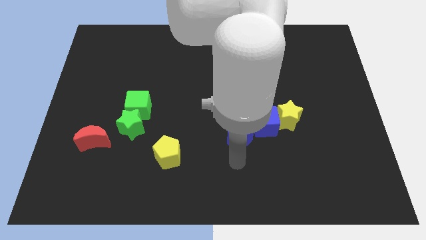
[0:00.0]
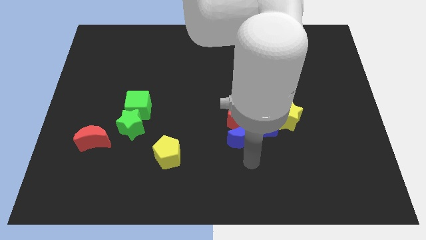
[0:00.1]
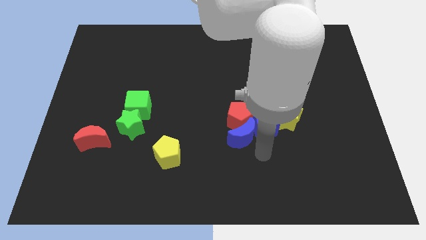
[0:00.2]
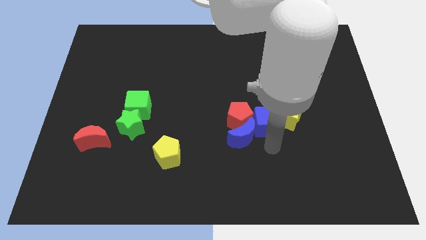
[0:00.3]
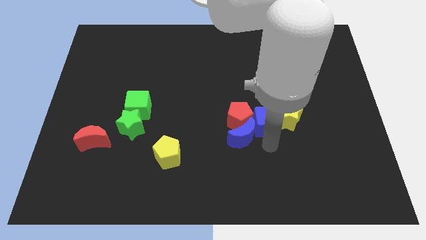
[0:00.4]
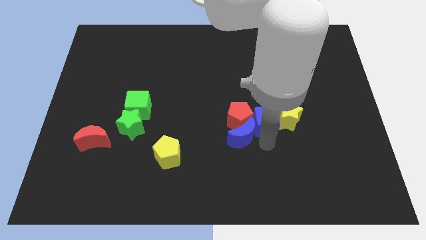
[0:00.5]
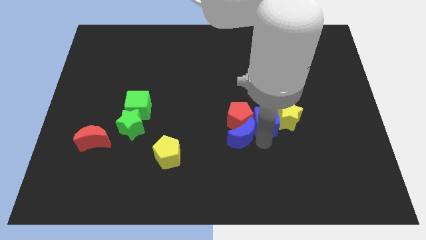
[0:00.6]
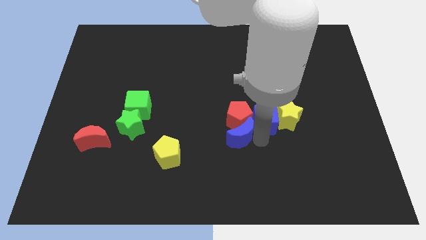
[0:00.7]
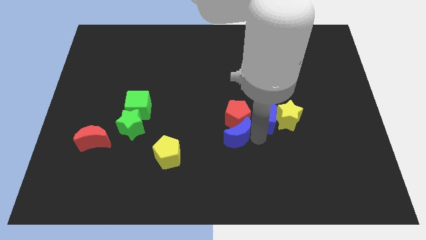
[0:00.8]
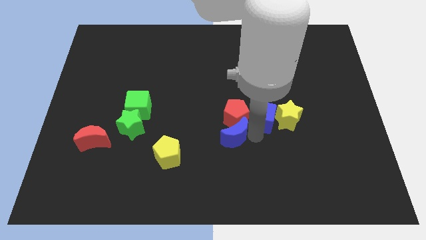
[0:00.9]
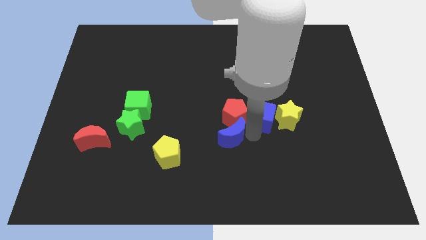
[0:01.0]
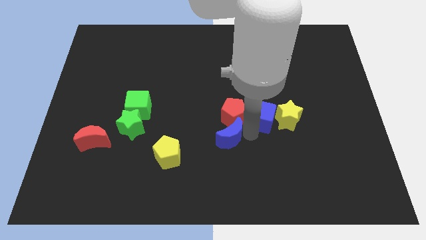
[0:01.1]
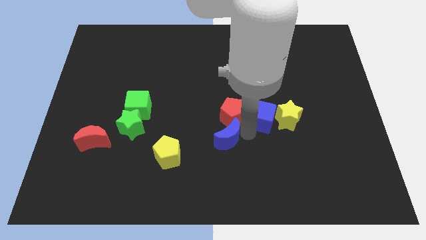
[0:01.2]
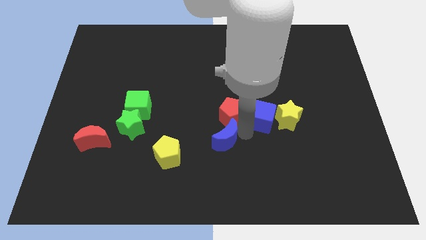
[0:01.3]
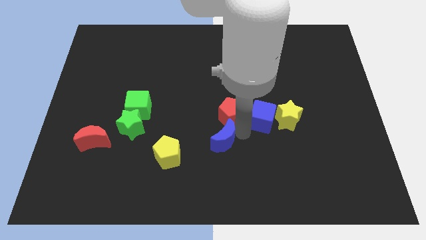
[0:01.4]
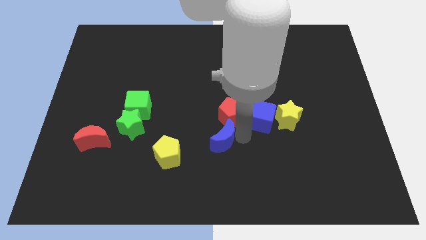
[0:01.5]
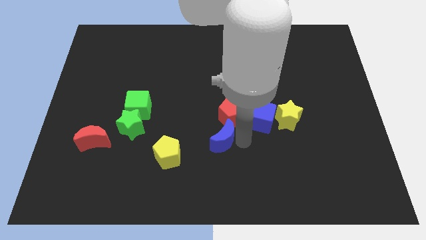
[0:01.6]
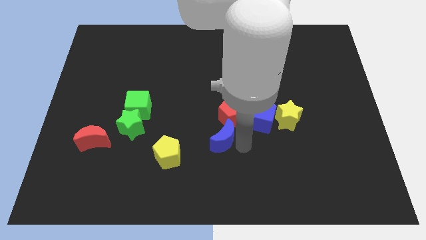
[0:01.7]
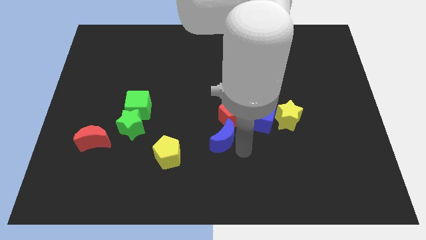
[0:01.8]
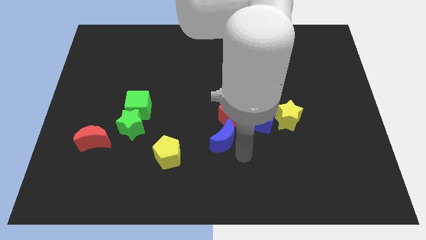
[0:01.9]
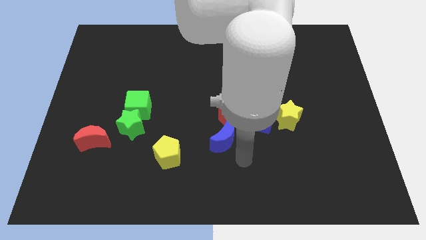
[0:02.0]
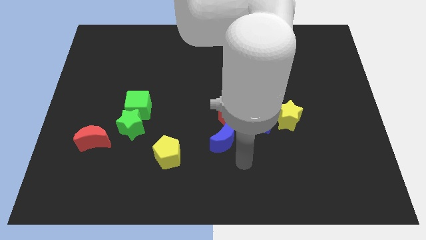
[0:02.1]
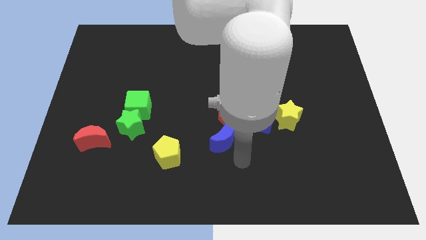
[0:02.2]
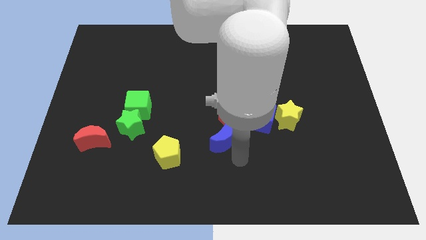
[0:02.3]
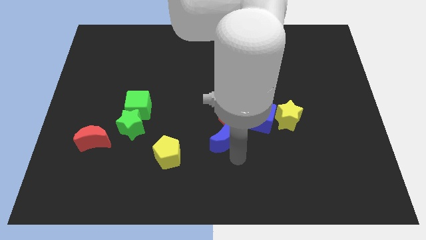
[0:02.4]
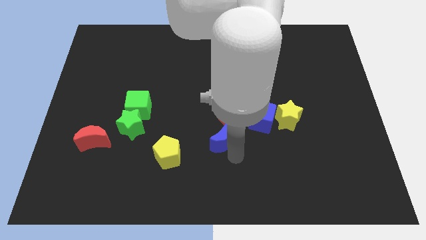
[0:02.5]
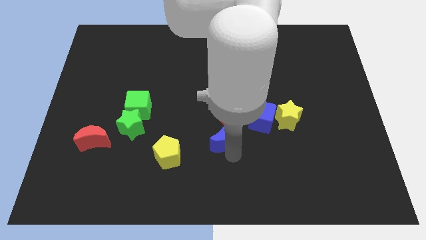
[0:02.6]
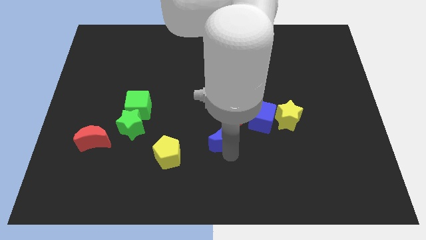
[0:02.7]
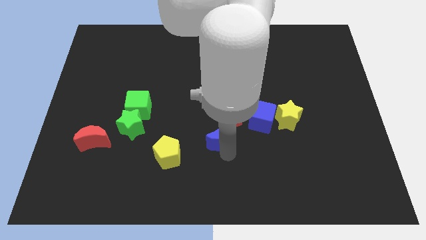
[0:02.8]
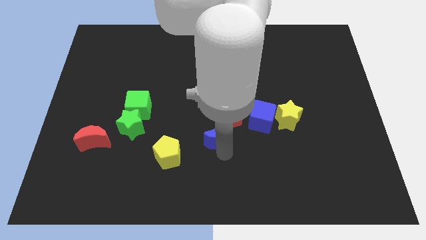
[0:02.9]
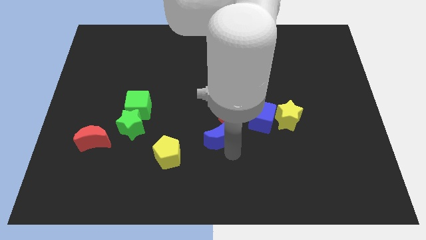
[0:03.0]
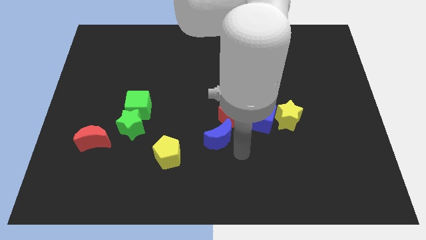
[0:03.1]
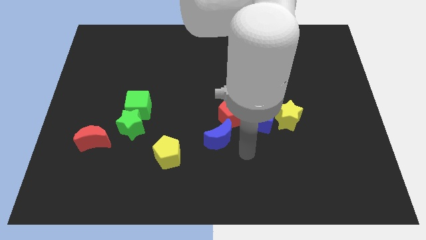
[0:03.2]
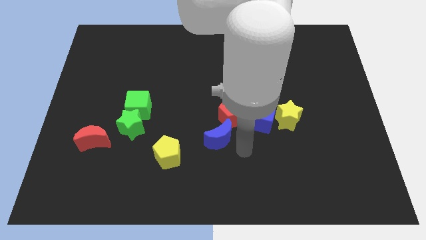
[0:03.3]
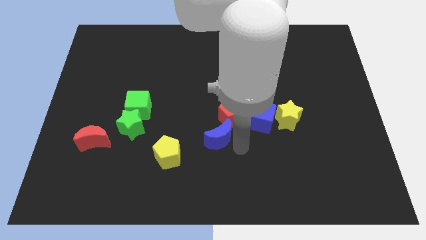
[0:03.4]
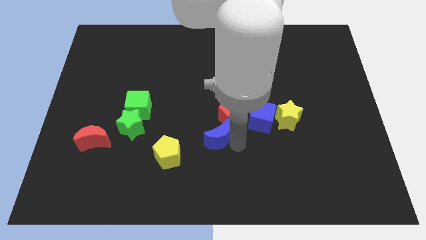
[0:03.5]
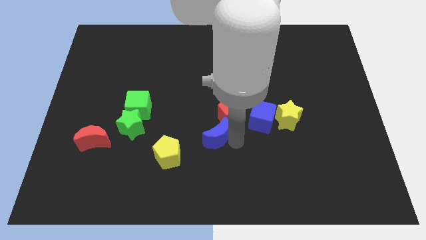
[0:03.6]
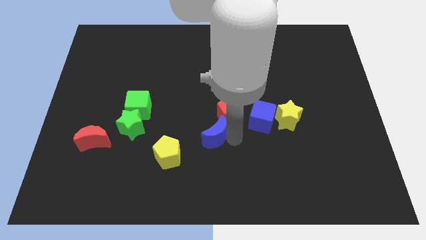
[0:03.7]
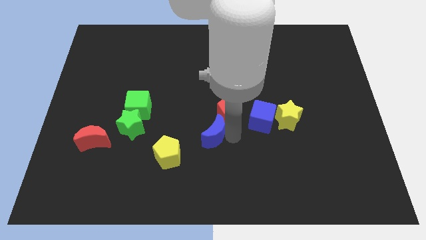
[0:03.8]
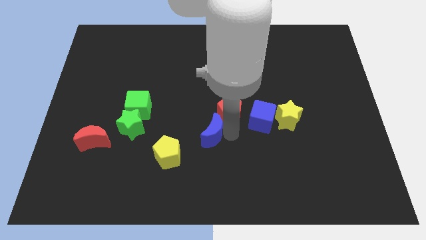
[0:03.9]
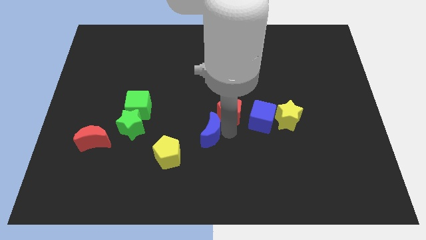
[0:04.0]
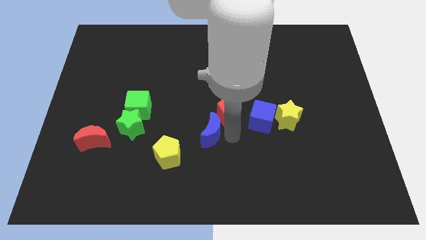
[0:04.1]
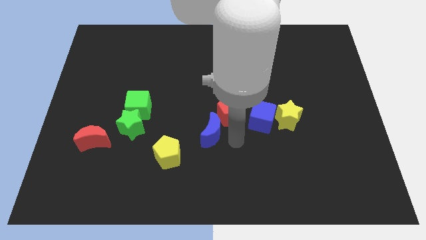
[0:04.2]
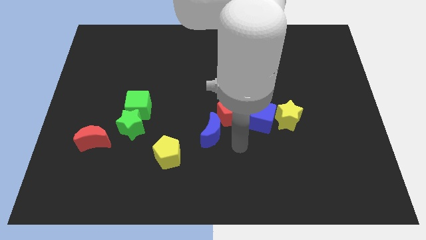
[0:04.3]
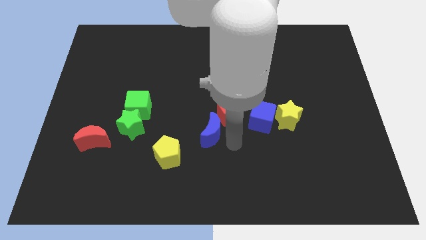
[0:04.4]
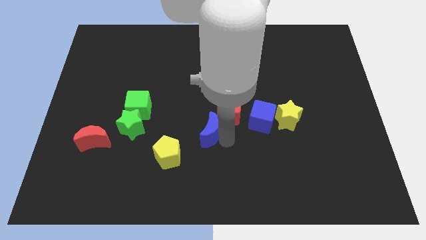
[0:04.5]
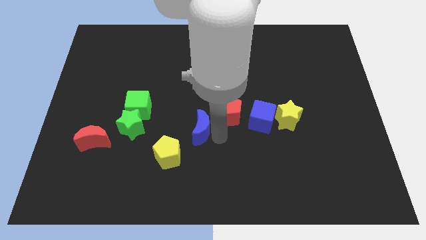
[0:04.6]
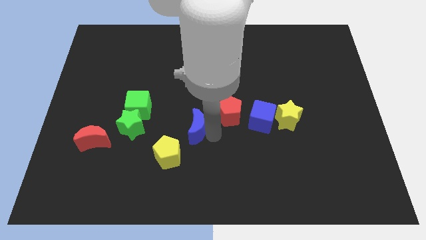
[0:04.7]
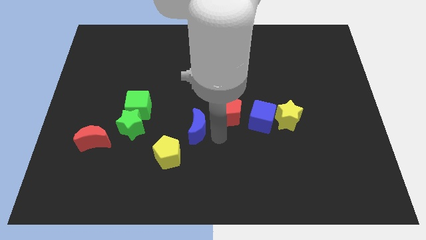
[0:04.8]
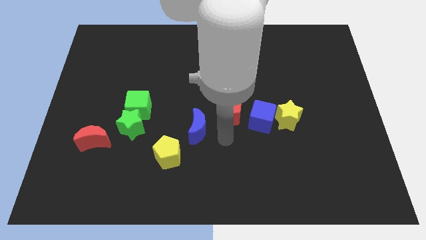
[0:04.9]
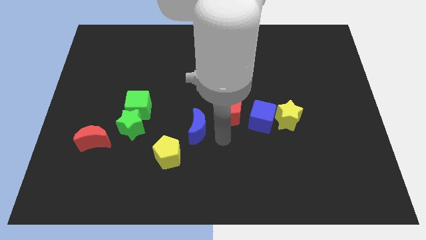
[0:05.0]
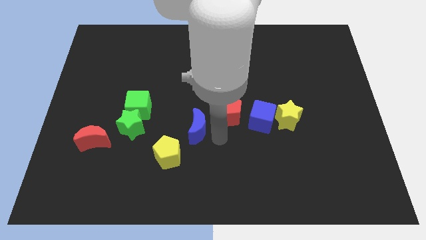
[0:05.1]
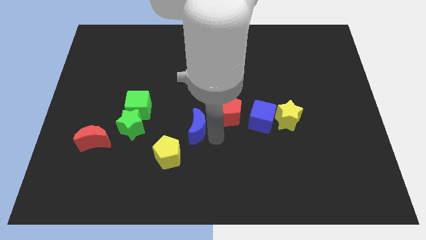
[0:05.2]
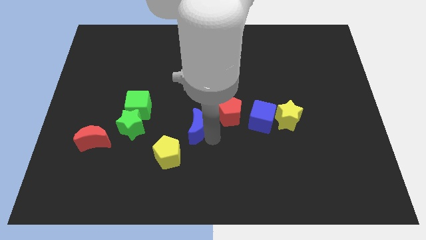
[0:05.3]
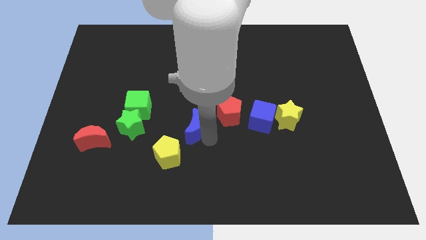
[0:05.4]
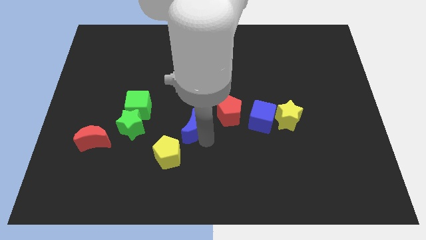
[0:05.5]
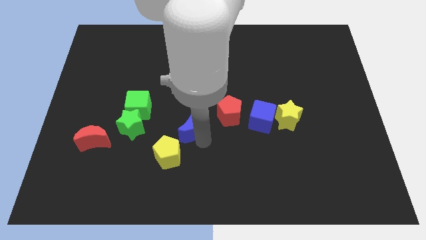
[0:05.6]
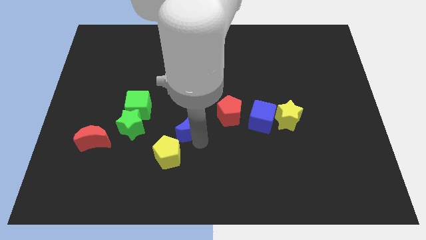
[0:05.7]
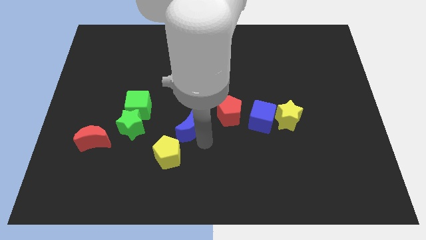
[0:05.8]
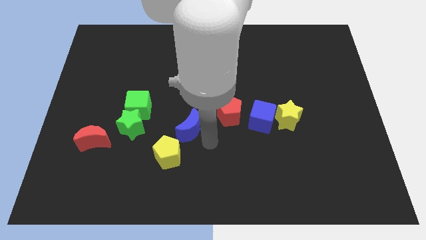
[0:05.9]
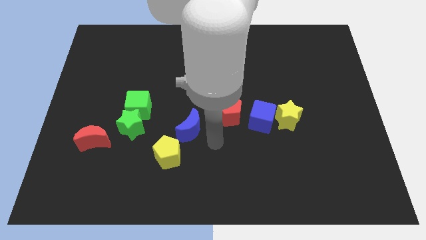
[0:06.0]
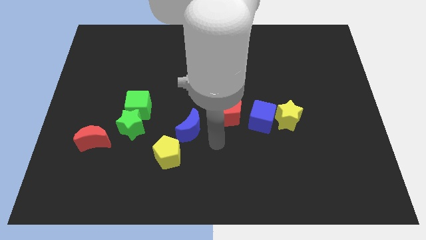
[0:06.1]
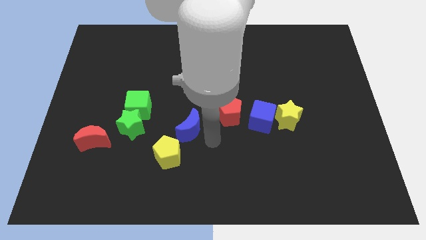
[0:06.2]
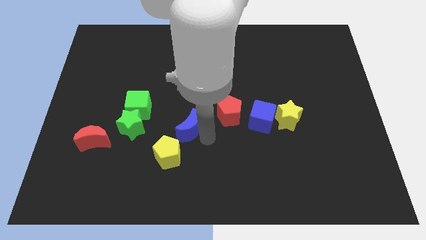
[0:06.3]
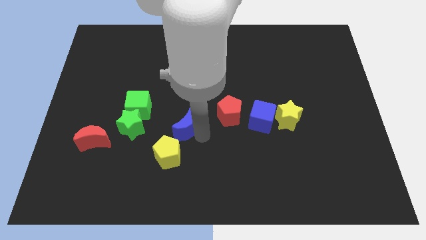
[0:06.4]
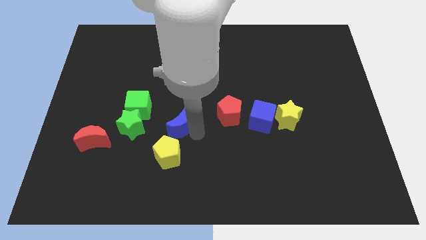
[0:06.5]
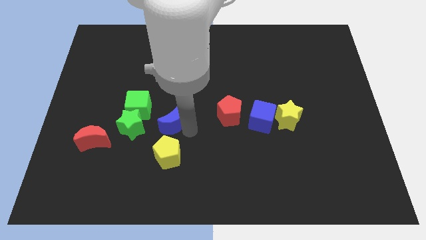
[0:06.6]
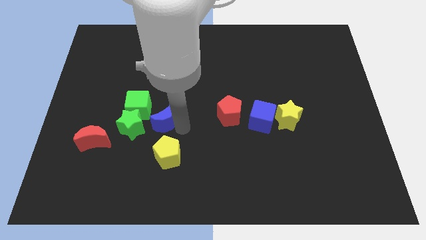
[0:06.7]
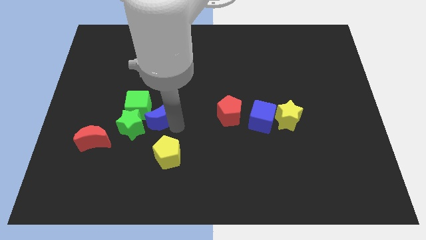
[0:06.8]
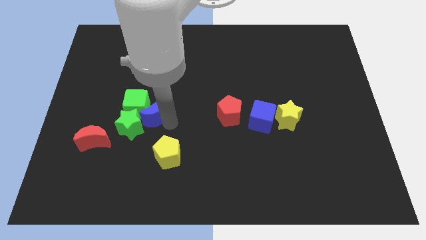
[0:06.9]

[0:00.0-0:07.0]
put the blue moon towards the green cube

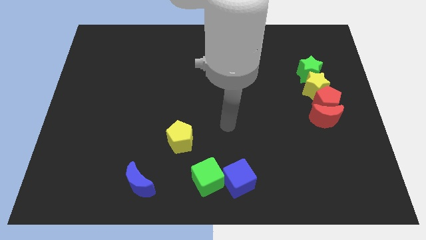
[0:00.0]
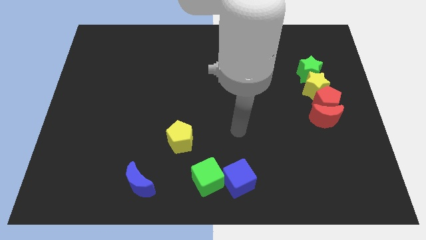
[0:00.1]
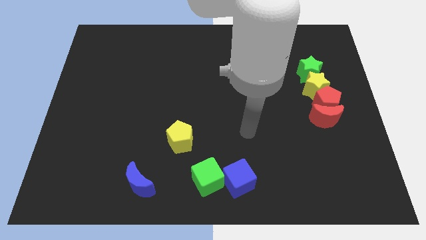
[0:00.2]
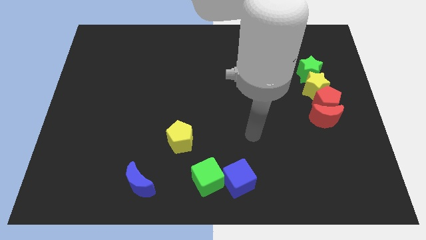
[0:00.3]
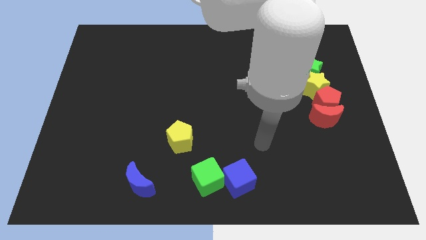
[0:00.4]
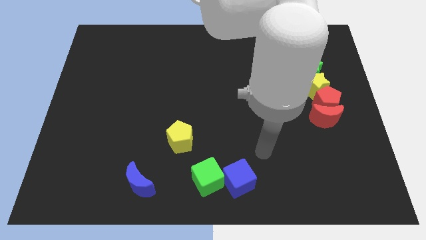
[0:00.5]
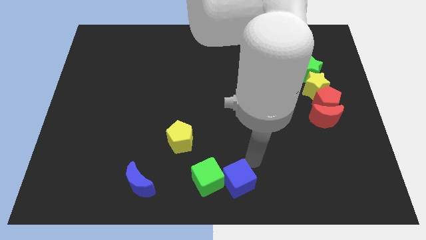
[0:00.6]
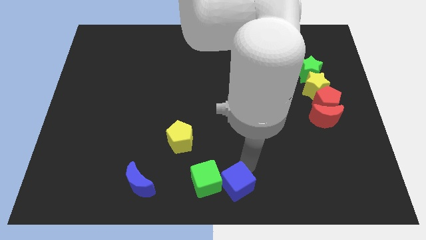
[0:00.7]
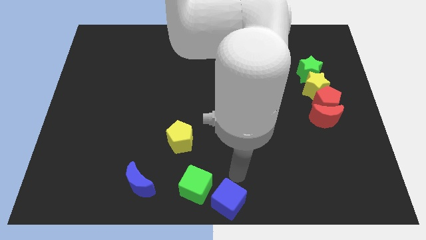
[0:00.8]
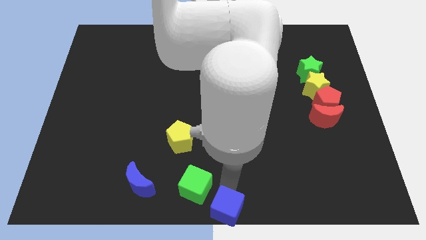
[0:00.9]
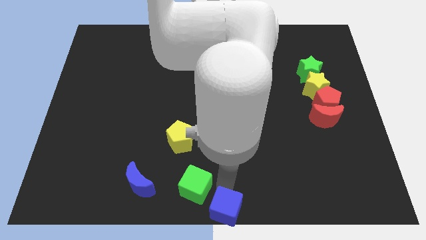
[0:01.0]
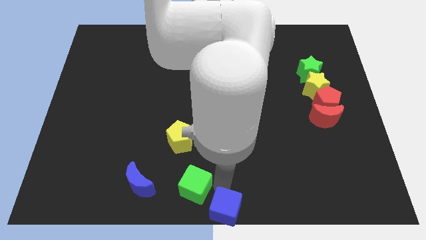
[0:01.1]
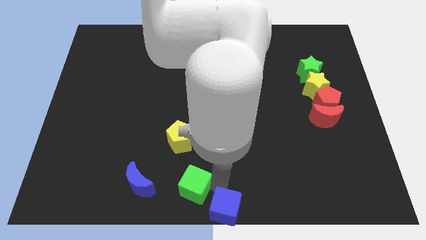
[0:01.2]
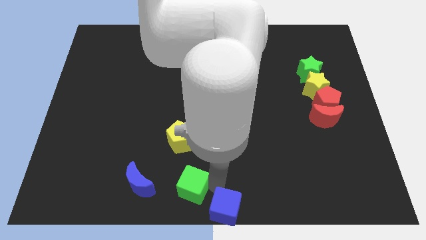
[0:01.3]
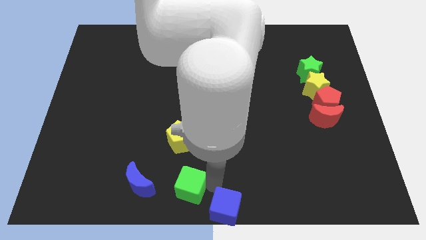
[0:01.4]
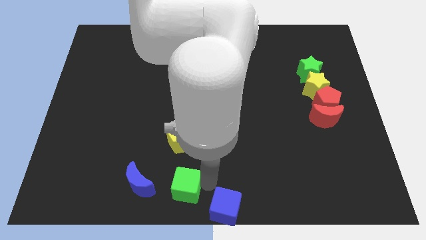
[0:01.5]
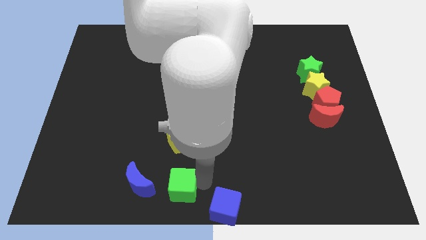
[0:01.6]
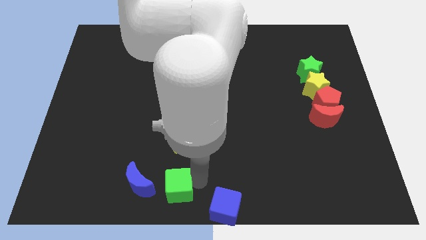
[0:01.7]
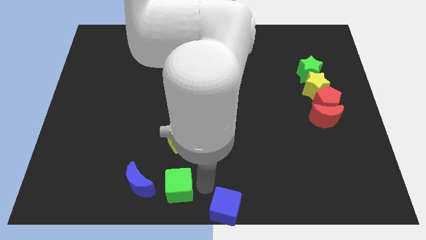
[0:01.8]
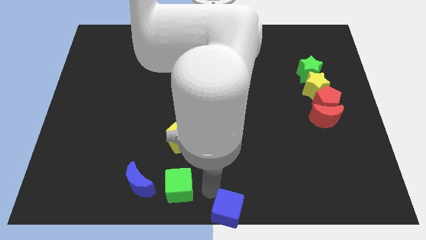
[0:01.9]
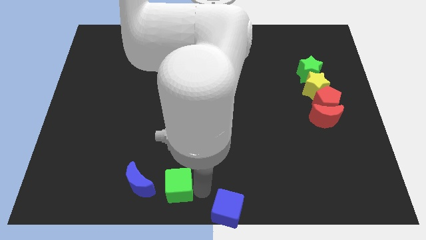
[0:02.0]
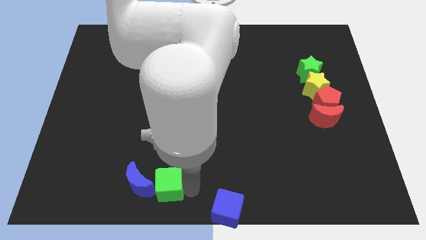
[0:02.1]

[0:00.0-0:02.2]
push the green cube to the blue moon
